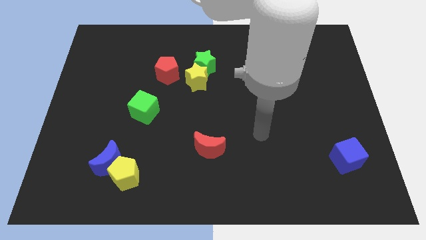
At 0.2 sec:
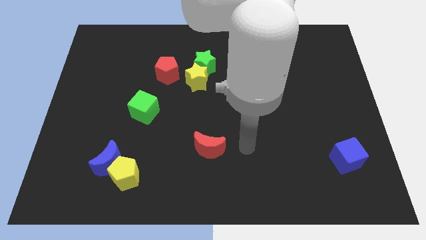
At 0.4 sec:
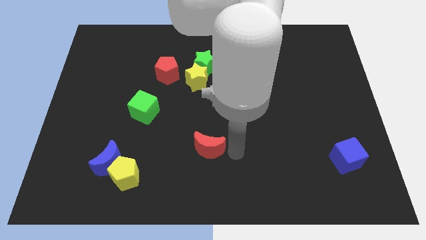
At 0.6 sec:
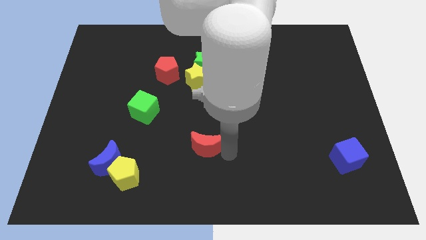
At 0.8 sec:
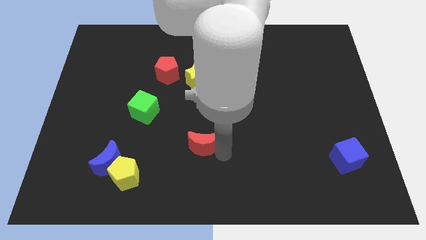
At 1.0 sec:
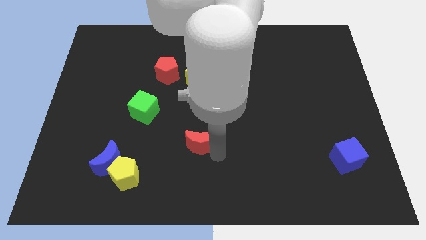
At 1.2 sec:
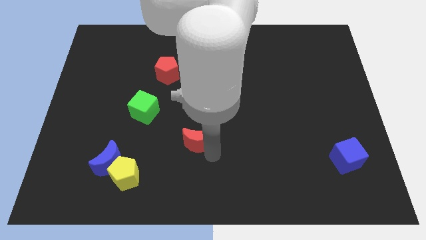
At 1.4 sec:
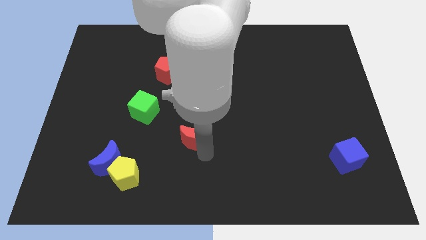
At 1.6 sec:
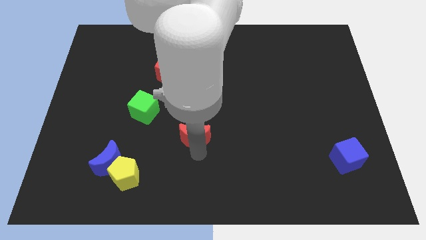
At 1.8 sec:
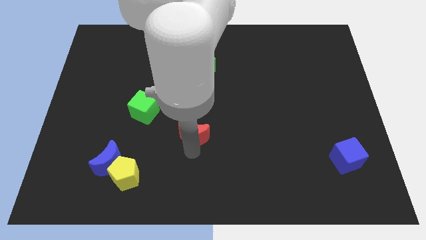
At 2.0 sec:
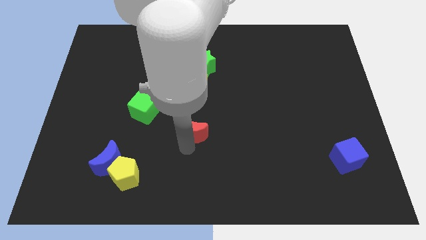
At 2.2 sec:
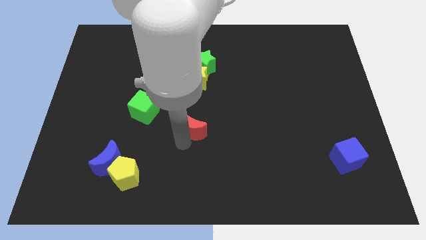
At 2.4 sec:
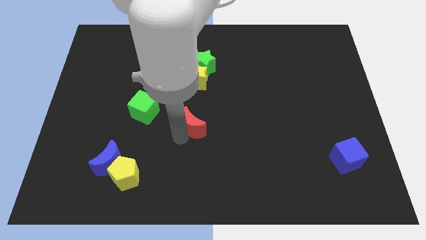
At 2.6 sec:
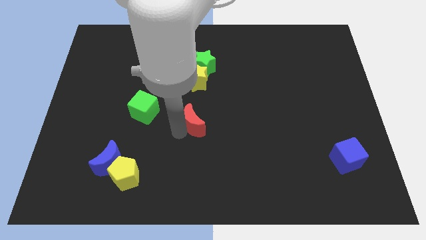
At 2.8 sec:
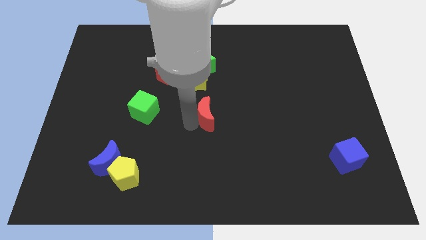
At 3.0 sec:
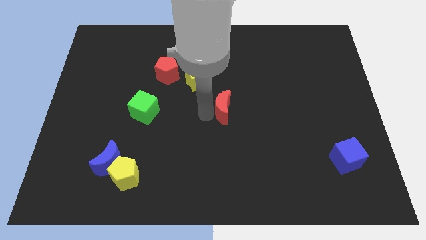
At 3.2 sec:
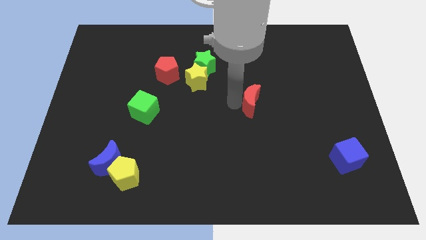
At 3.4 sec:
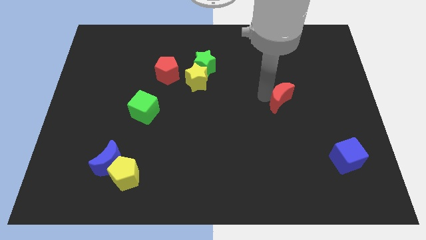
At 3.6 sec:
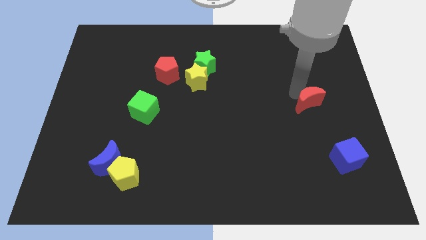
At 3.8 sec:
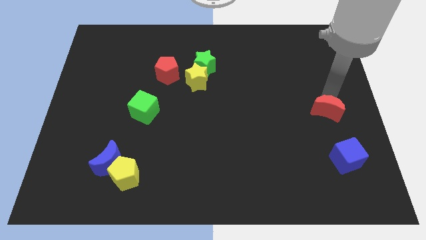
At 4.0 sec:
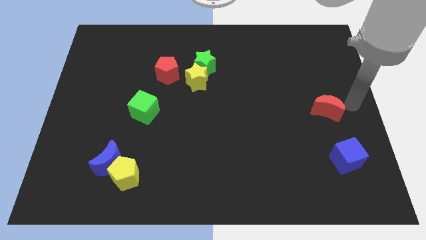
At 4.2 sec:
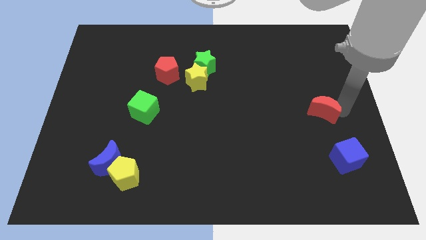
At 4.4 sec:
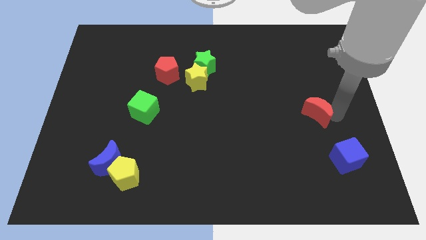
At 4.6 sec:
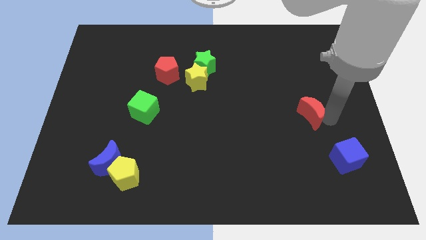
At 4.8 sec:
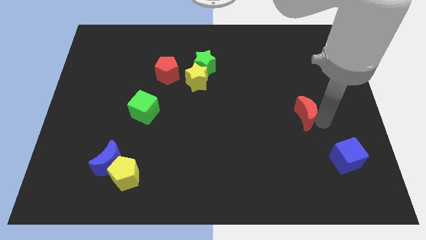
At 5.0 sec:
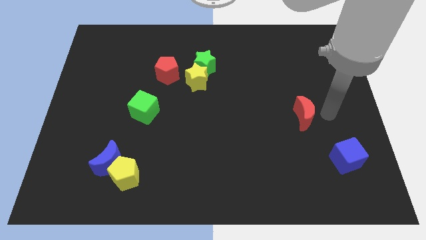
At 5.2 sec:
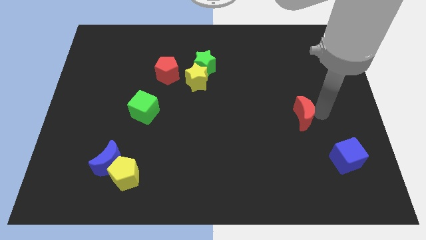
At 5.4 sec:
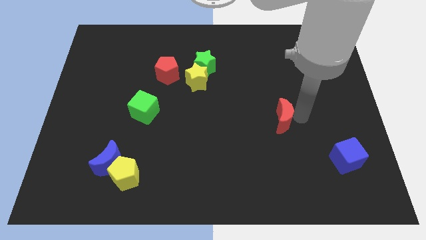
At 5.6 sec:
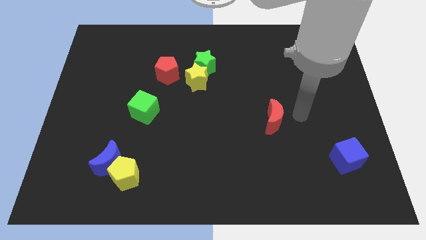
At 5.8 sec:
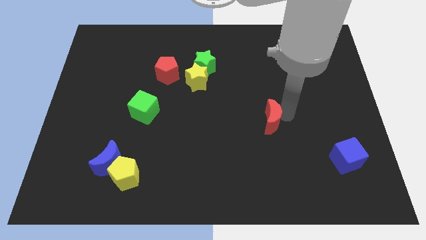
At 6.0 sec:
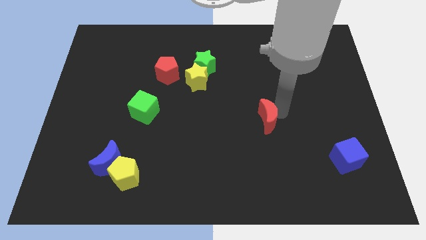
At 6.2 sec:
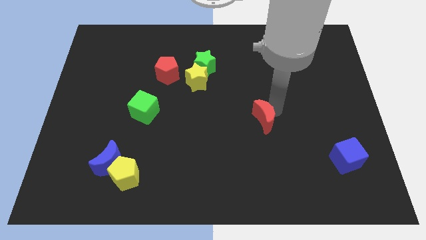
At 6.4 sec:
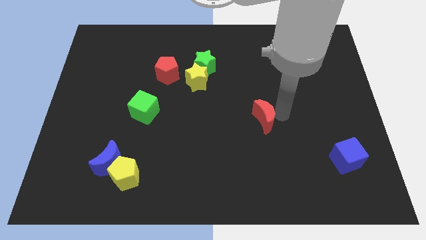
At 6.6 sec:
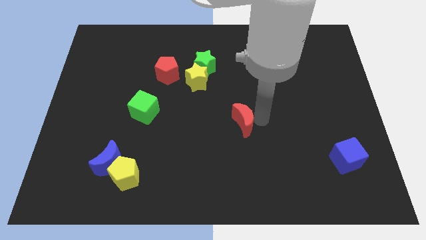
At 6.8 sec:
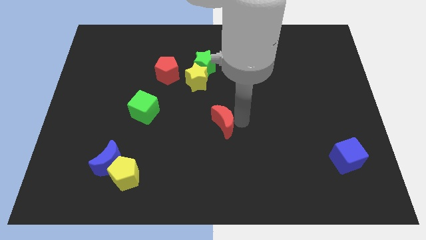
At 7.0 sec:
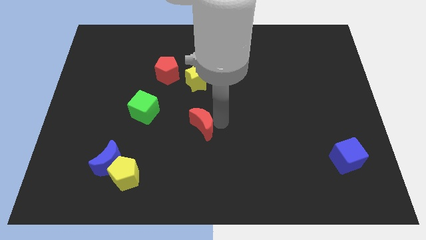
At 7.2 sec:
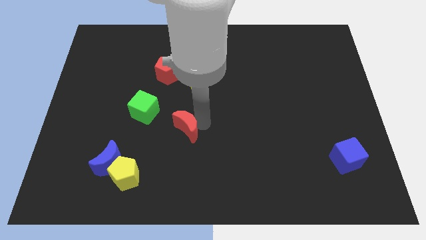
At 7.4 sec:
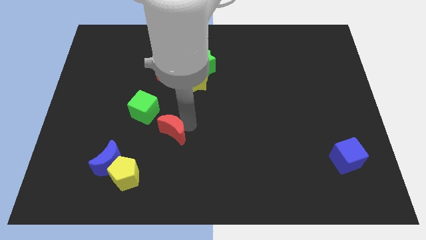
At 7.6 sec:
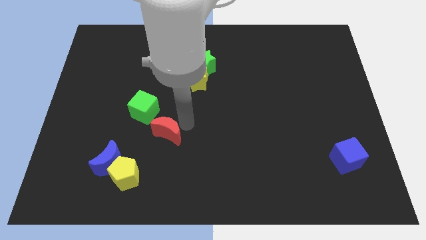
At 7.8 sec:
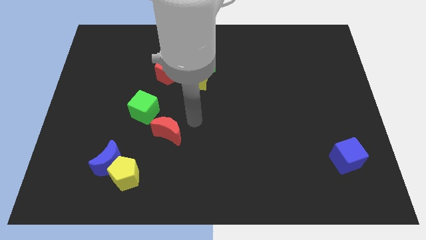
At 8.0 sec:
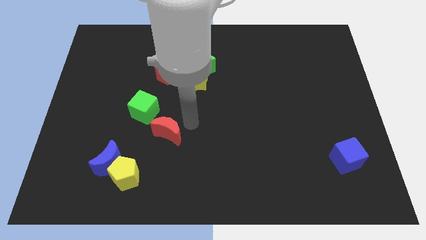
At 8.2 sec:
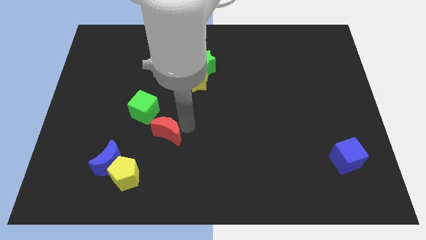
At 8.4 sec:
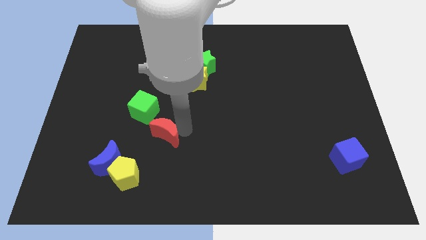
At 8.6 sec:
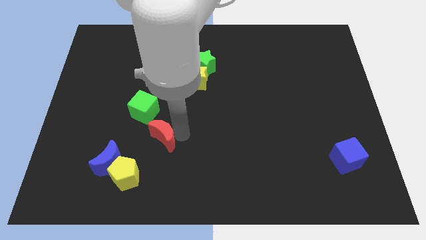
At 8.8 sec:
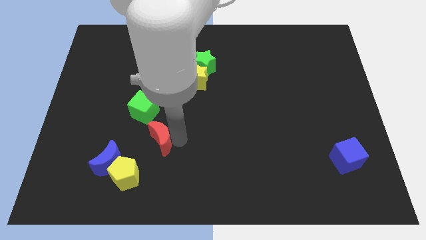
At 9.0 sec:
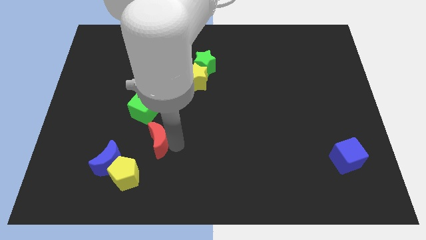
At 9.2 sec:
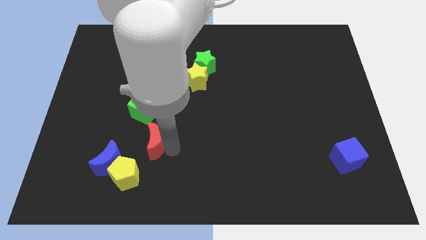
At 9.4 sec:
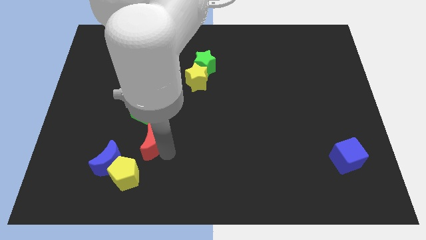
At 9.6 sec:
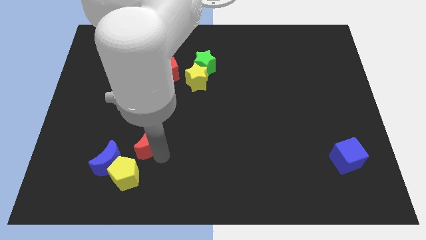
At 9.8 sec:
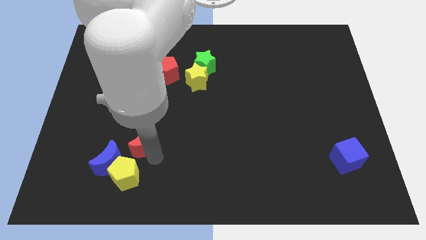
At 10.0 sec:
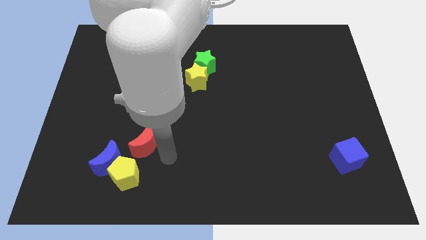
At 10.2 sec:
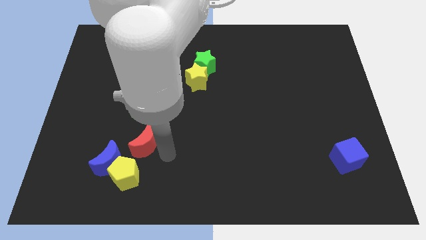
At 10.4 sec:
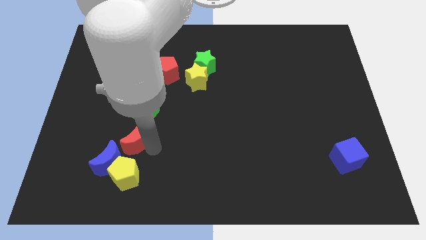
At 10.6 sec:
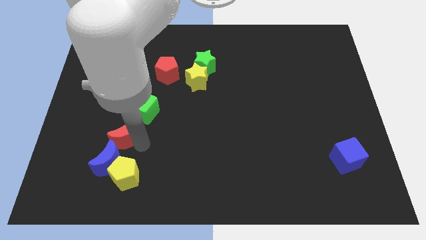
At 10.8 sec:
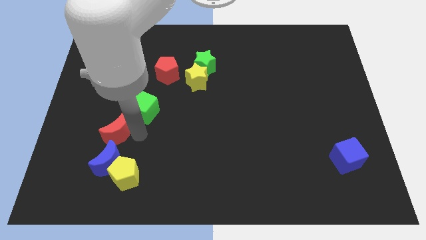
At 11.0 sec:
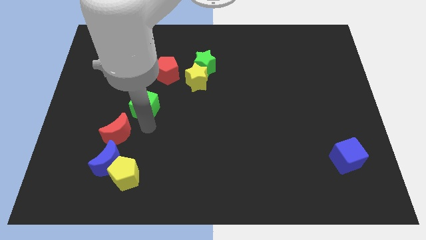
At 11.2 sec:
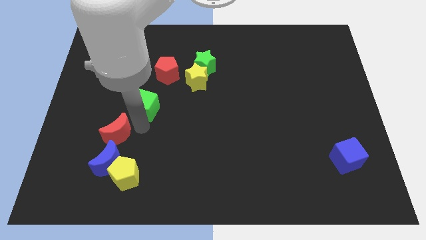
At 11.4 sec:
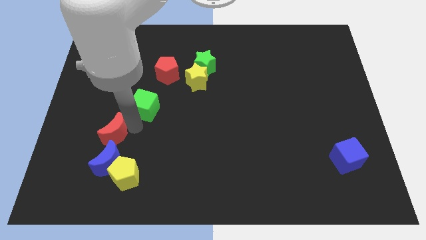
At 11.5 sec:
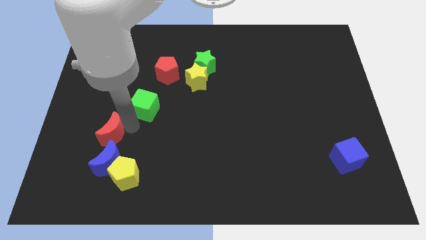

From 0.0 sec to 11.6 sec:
move the red moon to the top left side of the blue moon

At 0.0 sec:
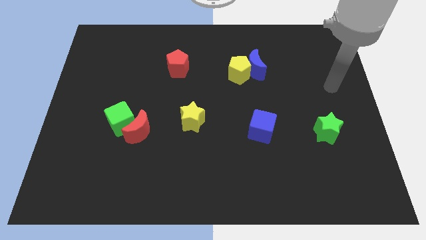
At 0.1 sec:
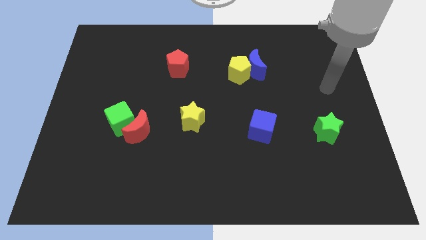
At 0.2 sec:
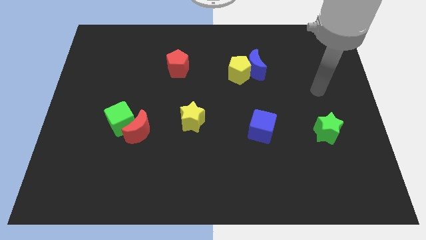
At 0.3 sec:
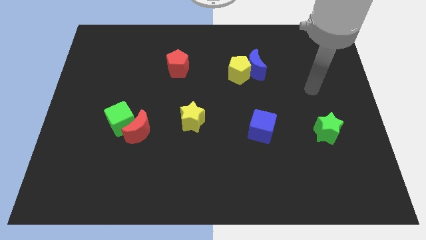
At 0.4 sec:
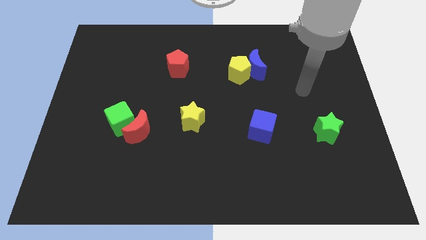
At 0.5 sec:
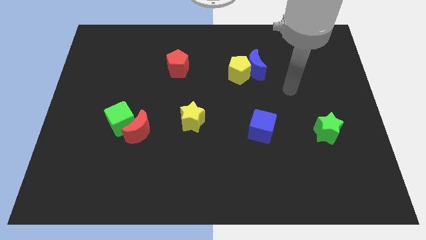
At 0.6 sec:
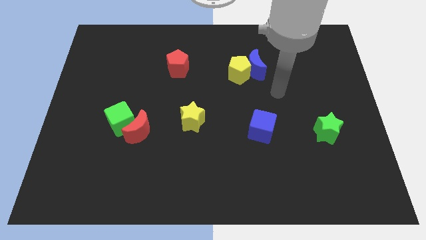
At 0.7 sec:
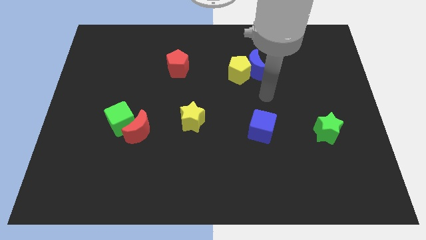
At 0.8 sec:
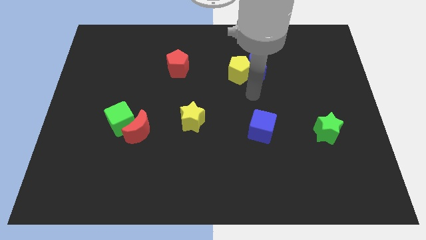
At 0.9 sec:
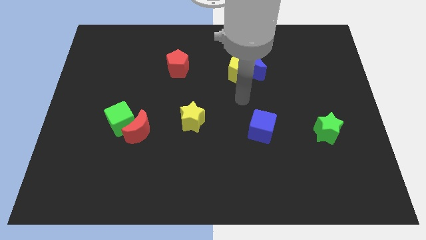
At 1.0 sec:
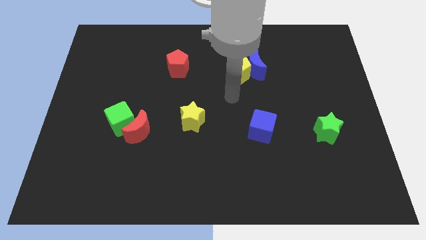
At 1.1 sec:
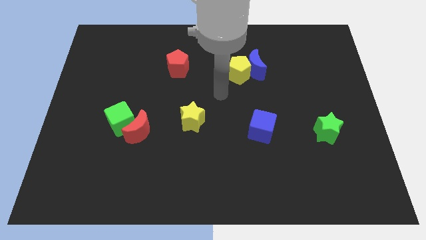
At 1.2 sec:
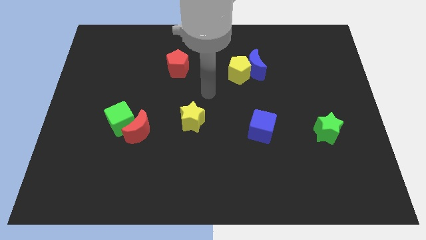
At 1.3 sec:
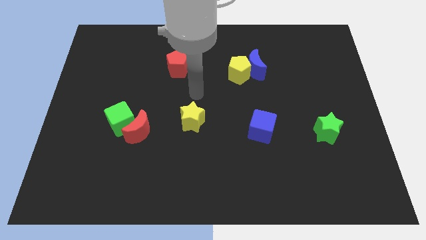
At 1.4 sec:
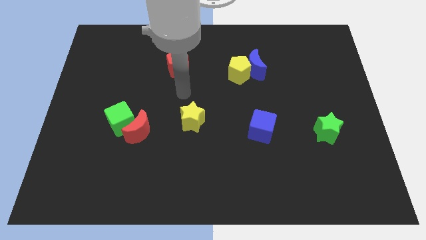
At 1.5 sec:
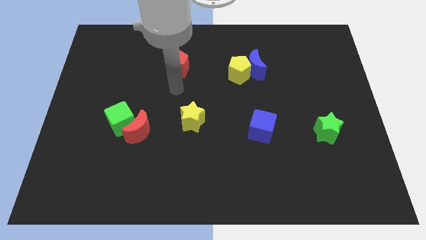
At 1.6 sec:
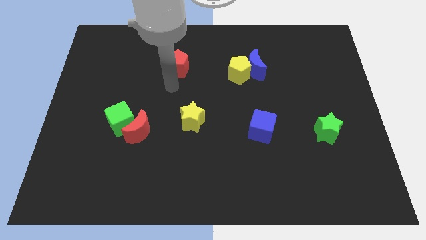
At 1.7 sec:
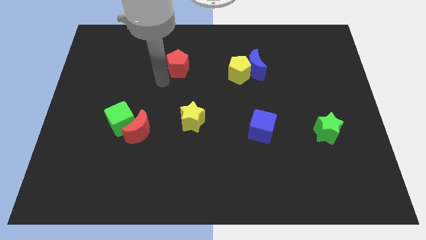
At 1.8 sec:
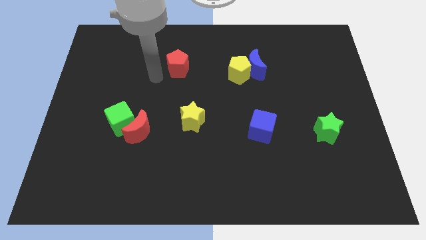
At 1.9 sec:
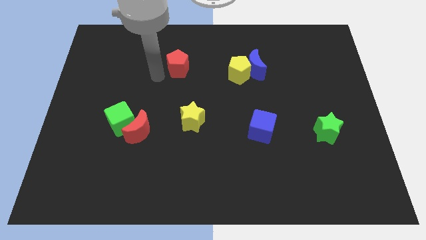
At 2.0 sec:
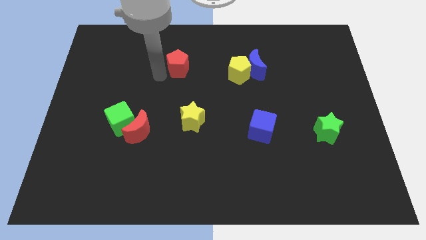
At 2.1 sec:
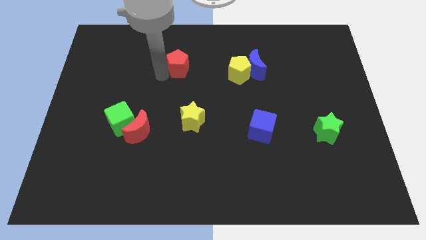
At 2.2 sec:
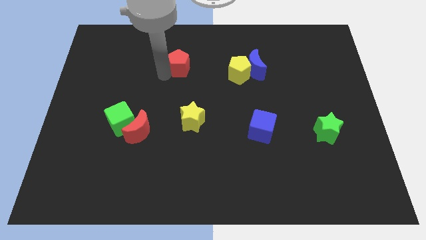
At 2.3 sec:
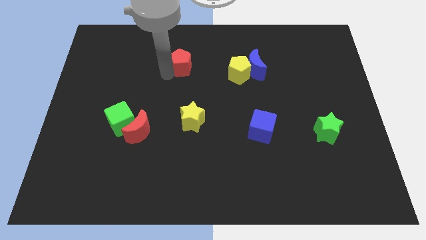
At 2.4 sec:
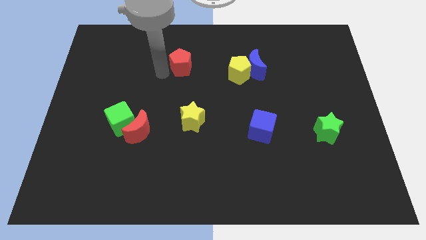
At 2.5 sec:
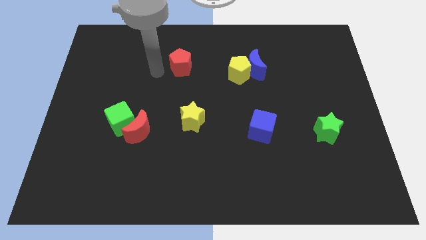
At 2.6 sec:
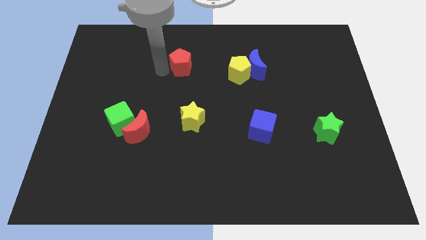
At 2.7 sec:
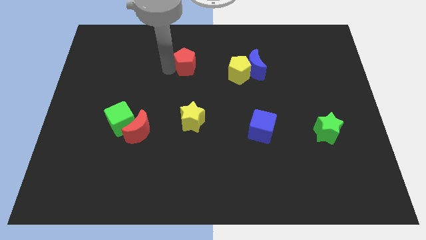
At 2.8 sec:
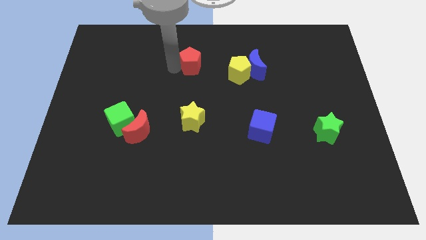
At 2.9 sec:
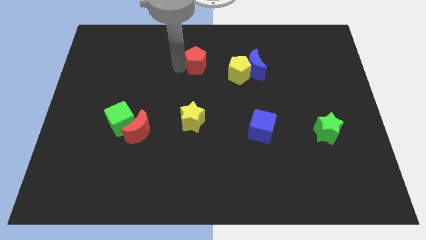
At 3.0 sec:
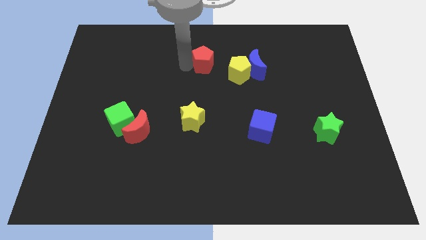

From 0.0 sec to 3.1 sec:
push the red pentagon to the top left of the yellow pentagon
